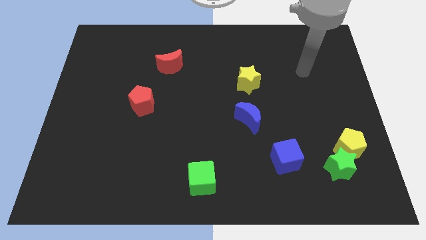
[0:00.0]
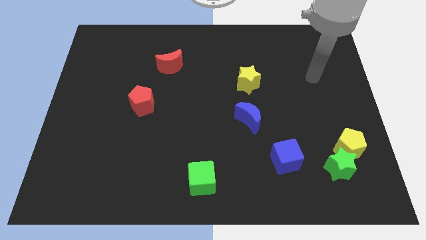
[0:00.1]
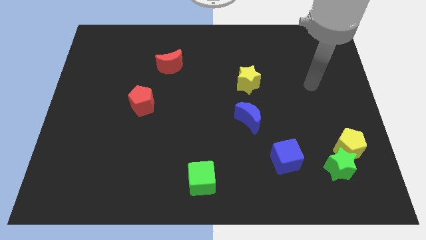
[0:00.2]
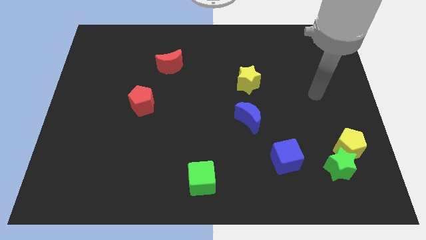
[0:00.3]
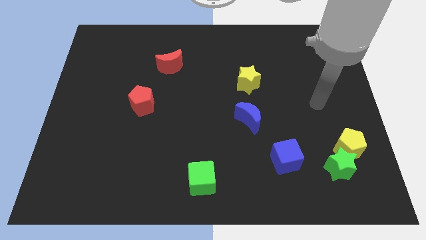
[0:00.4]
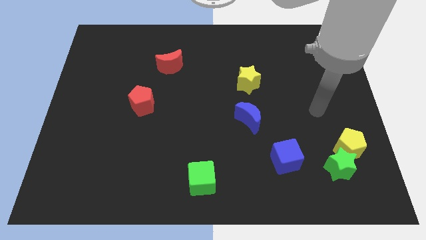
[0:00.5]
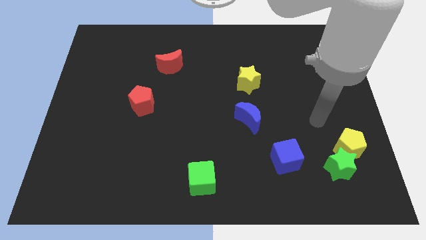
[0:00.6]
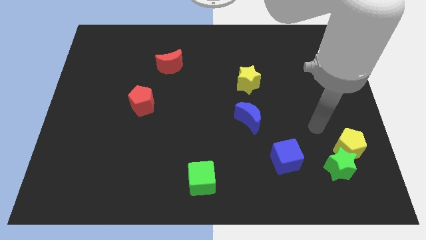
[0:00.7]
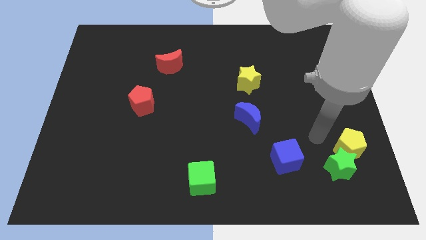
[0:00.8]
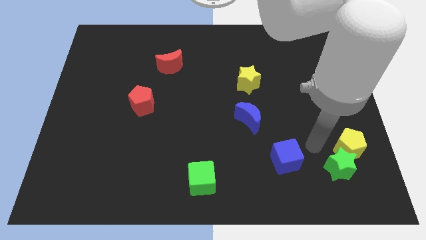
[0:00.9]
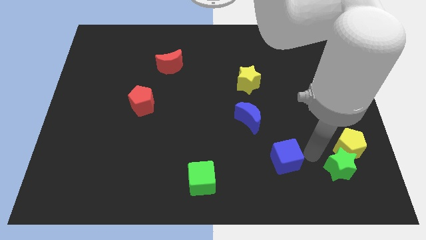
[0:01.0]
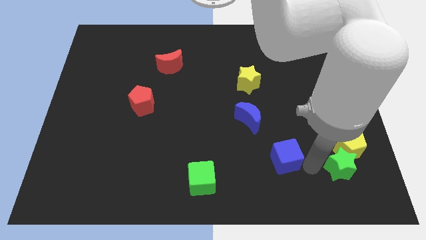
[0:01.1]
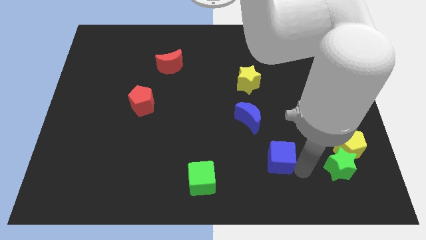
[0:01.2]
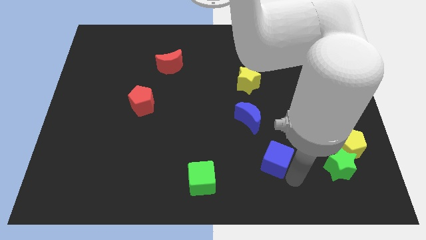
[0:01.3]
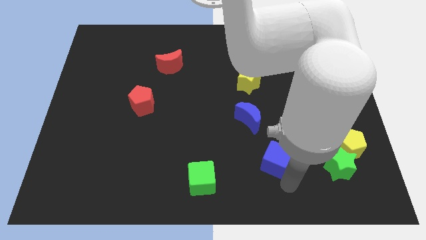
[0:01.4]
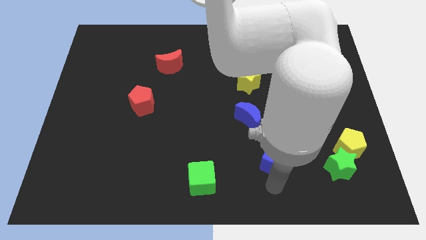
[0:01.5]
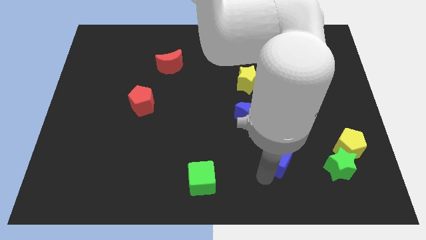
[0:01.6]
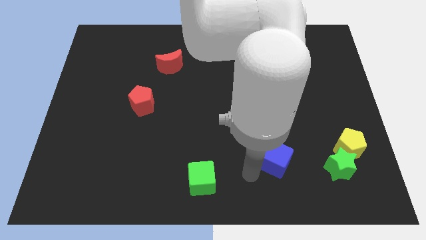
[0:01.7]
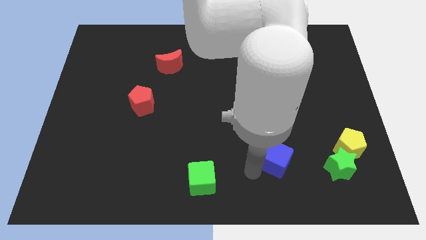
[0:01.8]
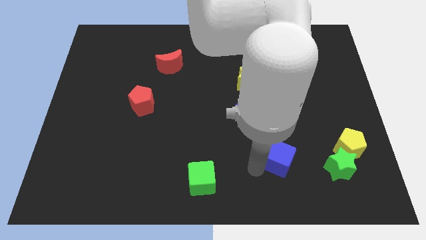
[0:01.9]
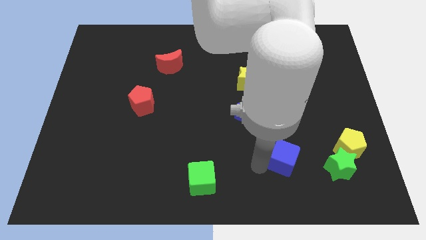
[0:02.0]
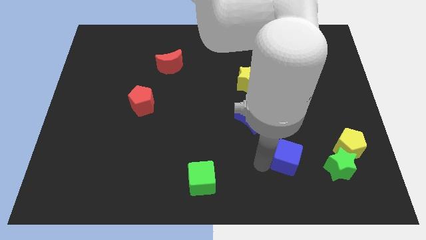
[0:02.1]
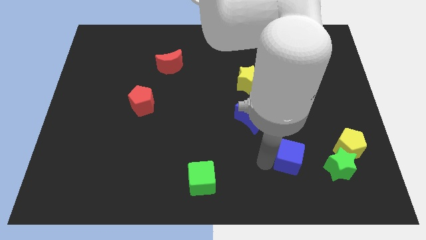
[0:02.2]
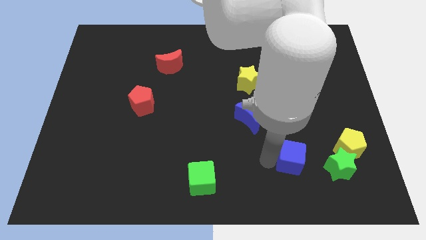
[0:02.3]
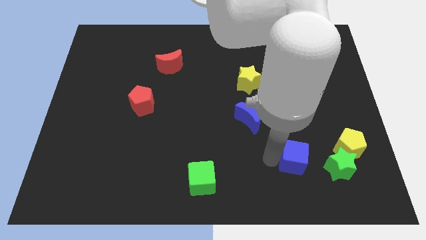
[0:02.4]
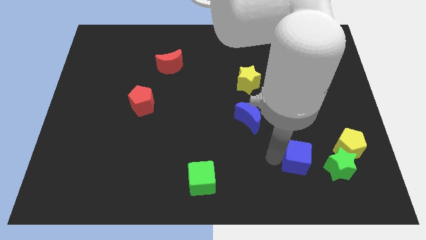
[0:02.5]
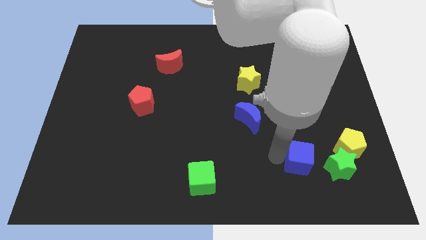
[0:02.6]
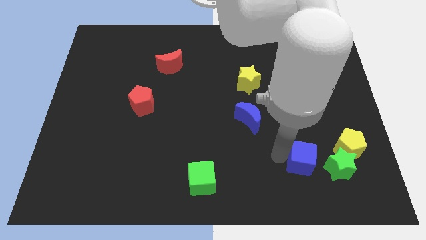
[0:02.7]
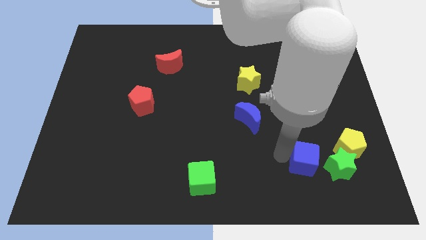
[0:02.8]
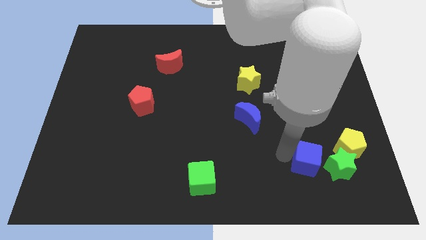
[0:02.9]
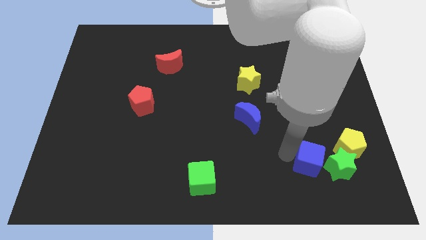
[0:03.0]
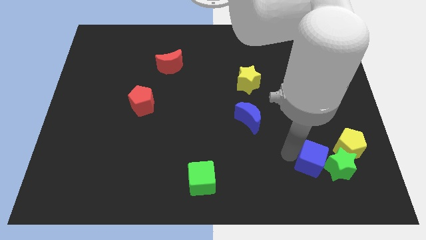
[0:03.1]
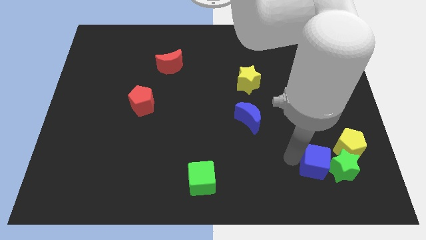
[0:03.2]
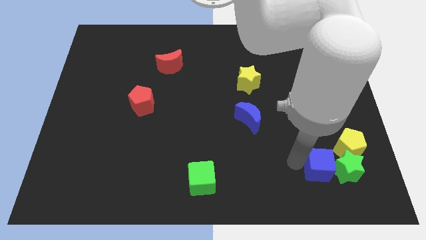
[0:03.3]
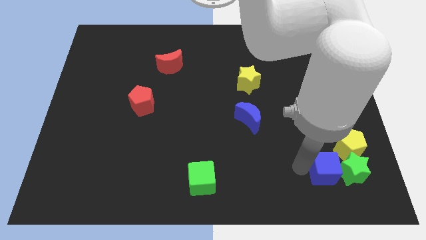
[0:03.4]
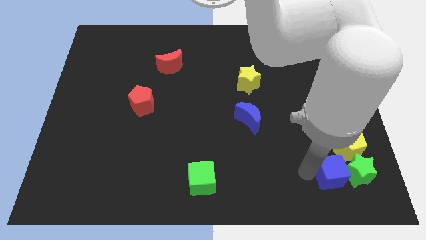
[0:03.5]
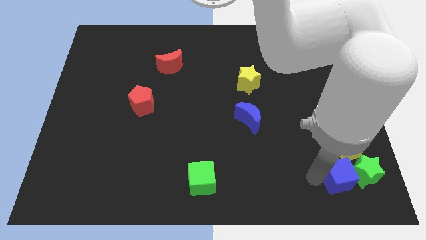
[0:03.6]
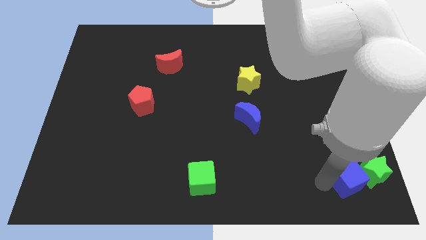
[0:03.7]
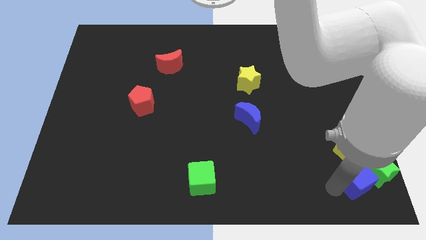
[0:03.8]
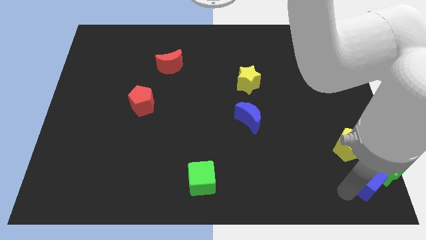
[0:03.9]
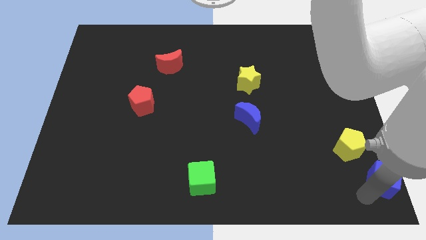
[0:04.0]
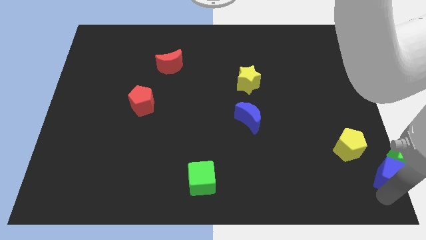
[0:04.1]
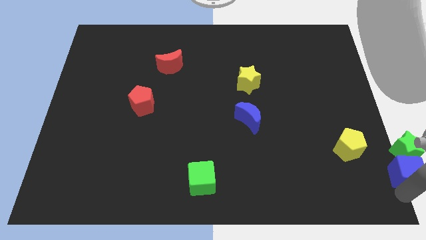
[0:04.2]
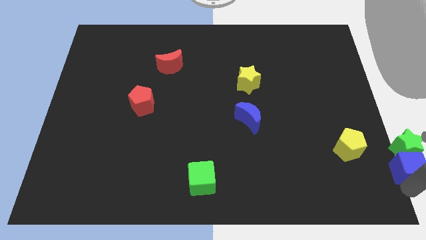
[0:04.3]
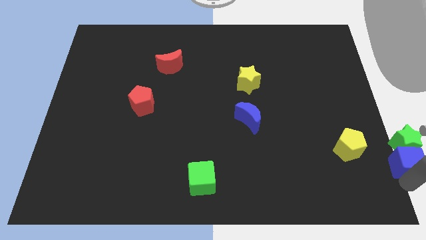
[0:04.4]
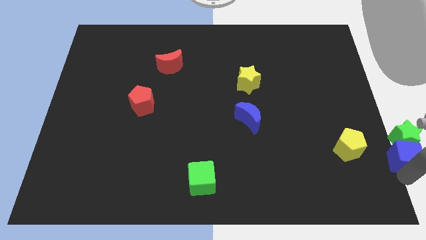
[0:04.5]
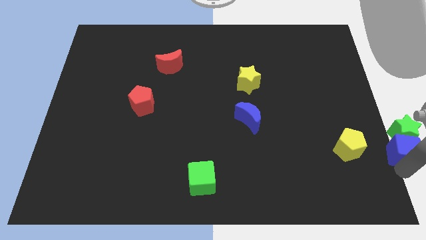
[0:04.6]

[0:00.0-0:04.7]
slide the blue cube to the right side of the board

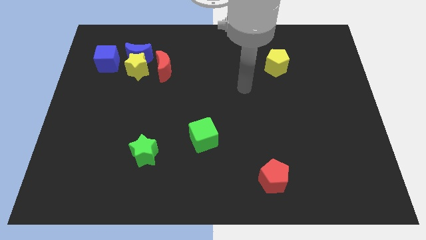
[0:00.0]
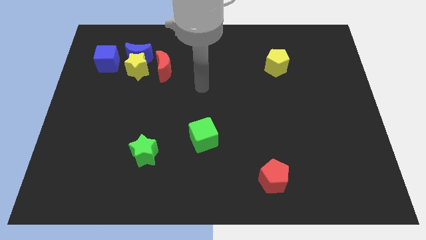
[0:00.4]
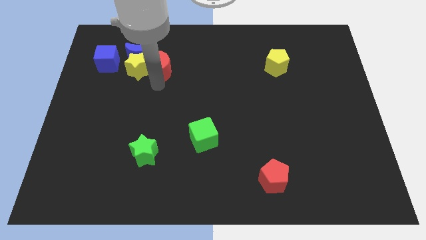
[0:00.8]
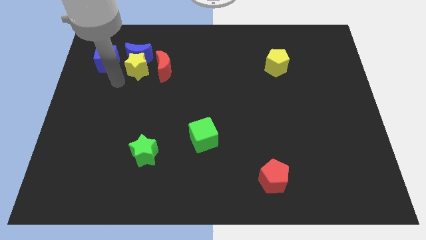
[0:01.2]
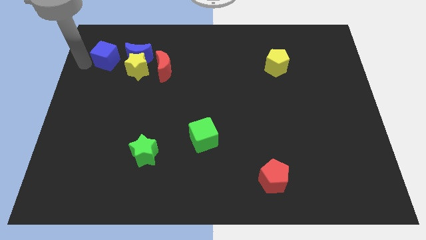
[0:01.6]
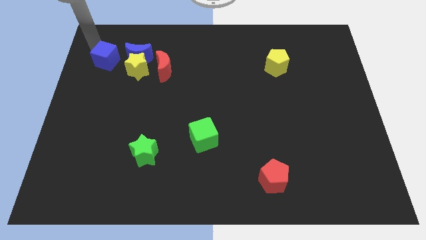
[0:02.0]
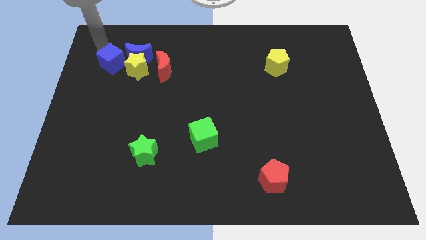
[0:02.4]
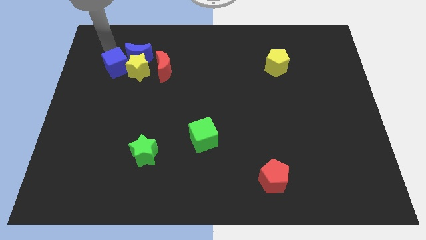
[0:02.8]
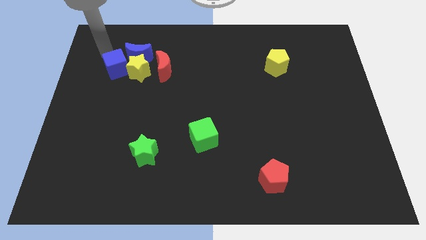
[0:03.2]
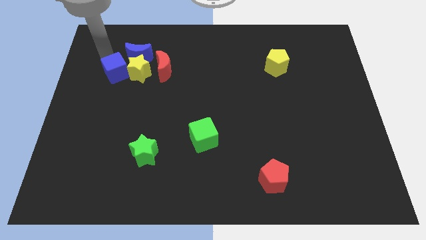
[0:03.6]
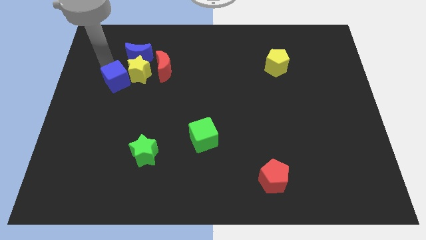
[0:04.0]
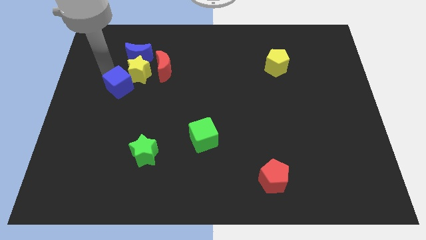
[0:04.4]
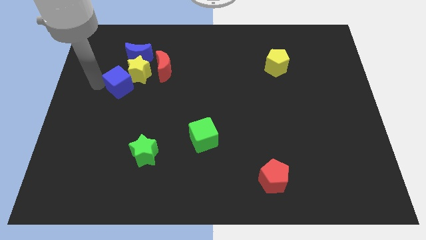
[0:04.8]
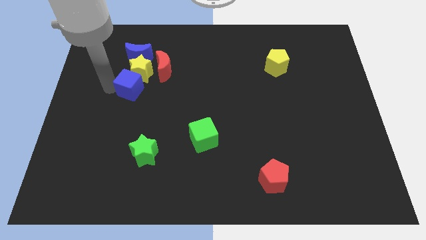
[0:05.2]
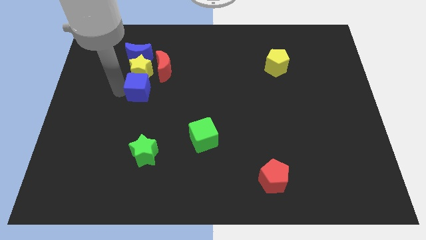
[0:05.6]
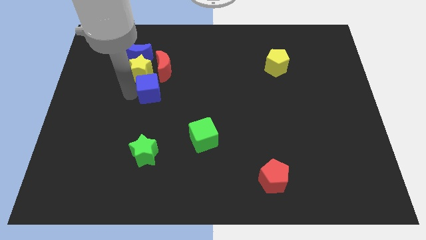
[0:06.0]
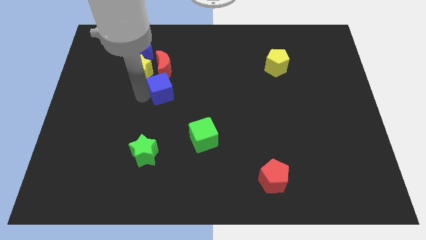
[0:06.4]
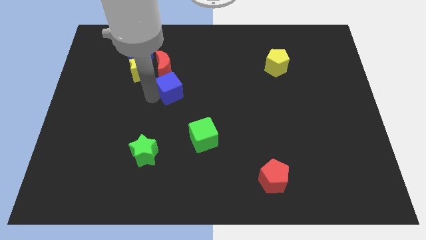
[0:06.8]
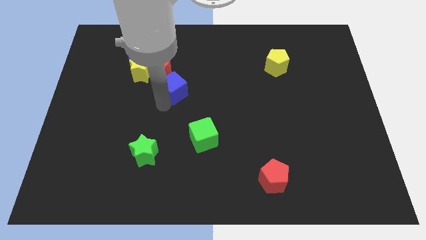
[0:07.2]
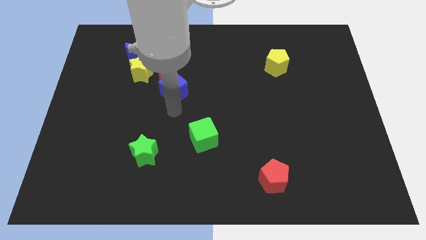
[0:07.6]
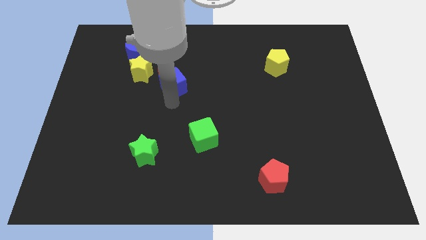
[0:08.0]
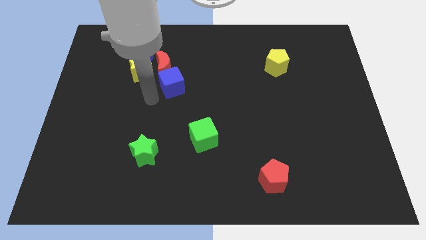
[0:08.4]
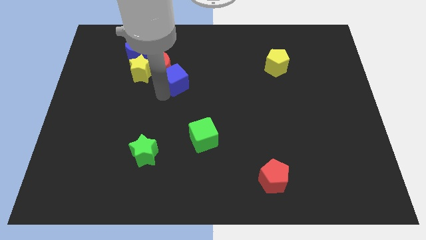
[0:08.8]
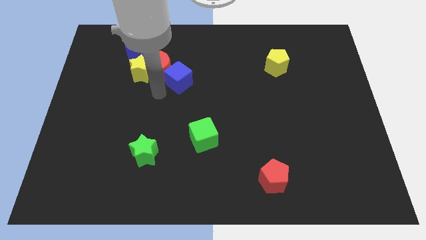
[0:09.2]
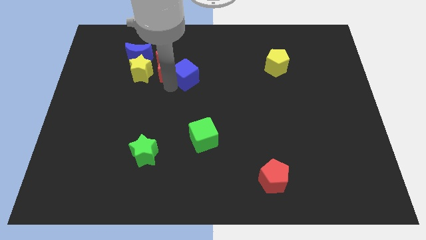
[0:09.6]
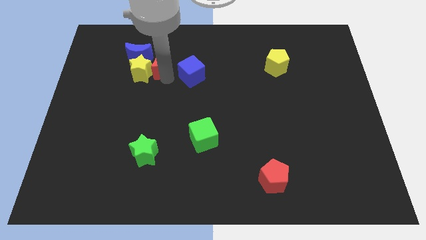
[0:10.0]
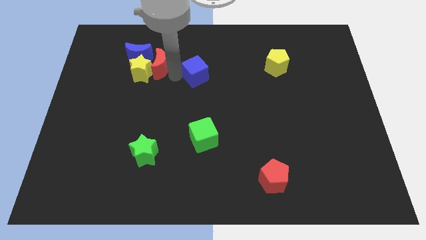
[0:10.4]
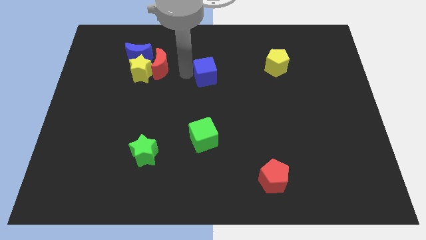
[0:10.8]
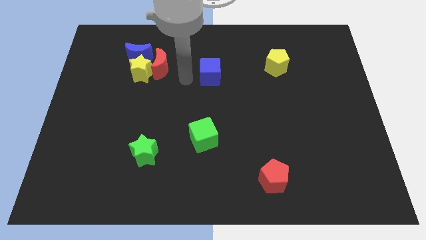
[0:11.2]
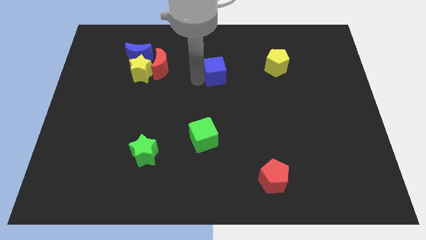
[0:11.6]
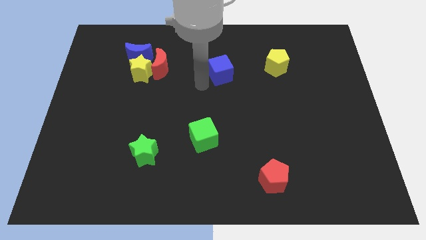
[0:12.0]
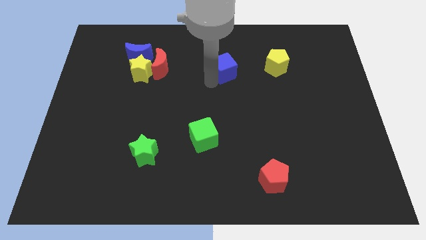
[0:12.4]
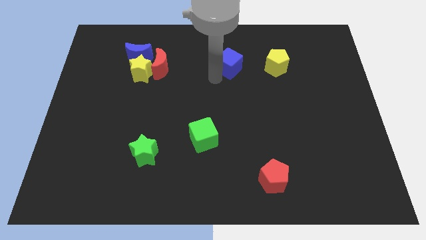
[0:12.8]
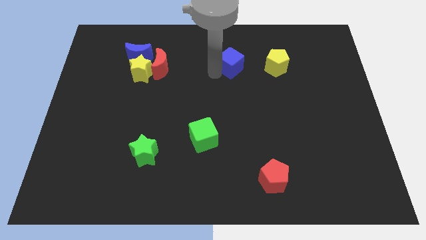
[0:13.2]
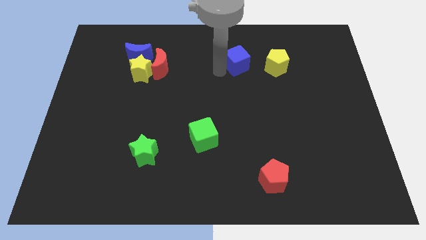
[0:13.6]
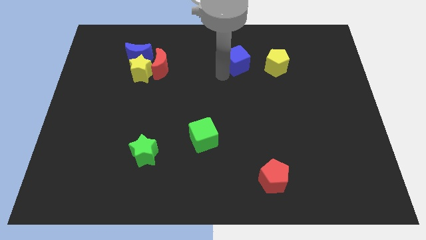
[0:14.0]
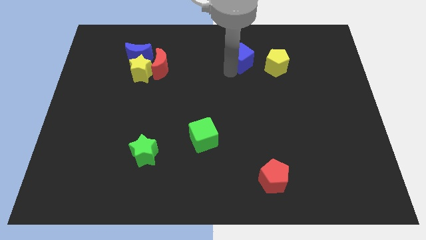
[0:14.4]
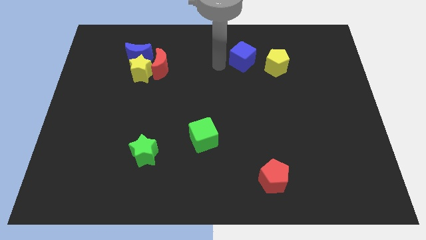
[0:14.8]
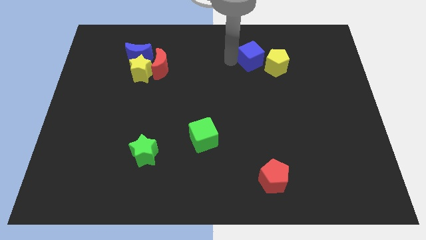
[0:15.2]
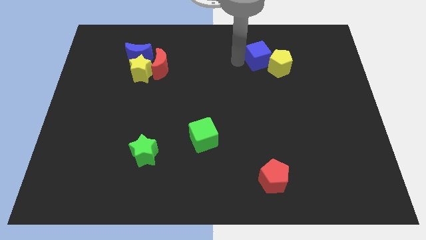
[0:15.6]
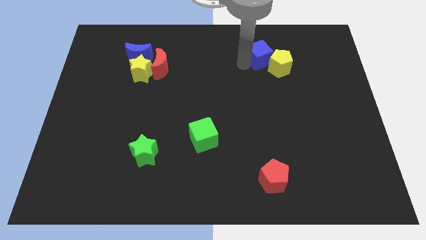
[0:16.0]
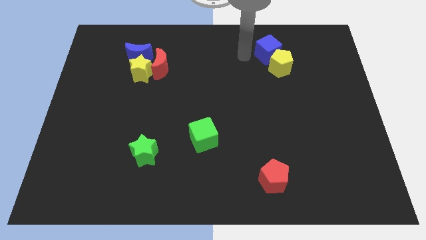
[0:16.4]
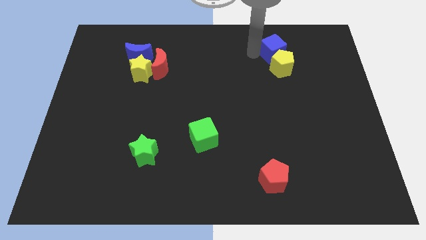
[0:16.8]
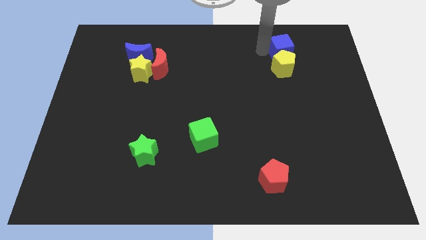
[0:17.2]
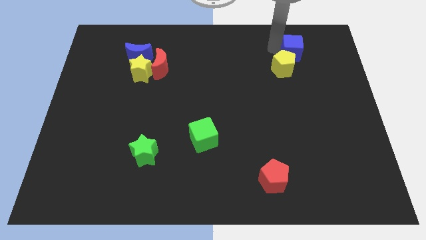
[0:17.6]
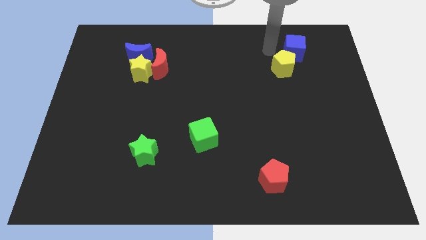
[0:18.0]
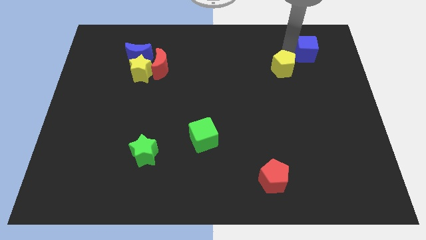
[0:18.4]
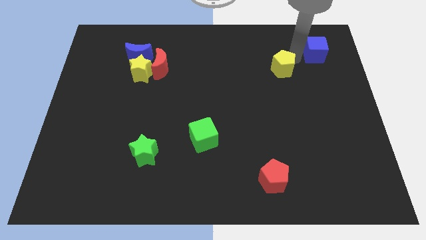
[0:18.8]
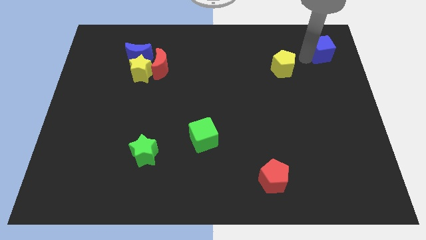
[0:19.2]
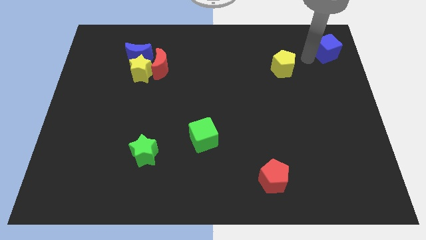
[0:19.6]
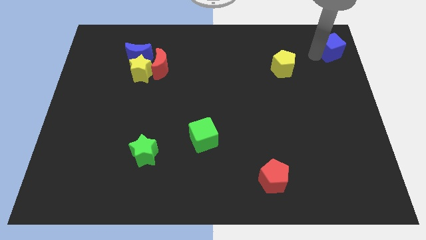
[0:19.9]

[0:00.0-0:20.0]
slide the blue cube to the upper right corner
